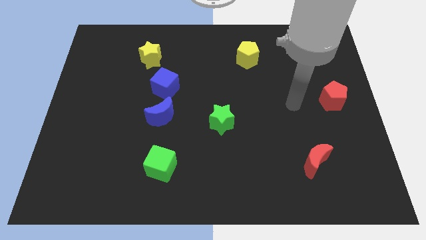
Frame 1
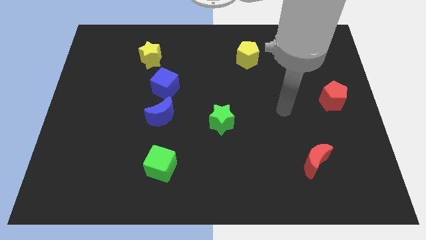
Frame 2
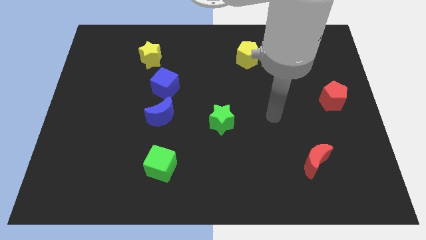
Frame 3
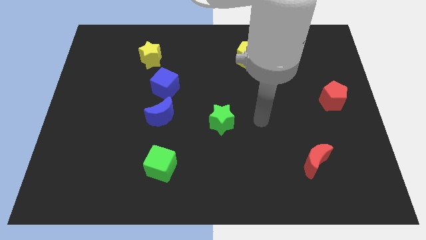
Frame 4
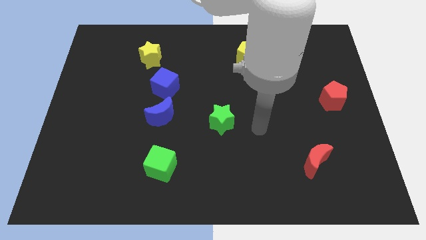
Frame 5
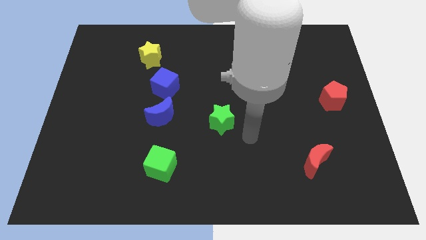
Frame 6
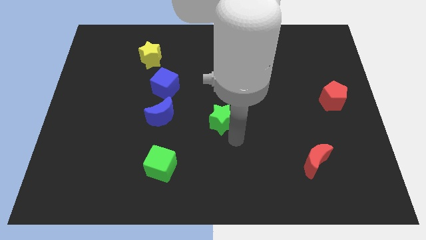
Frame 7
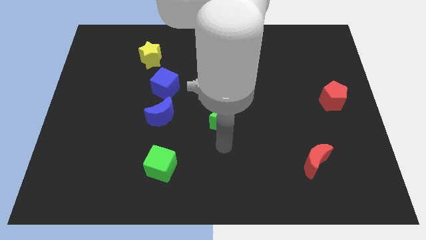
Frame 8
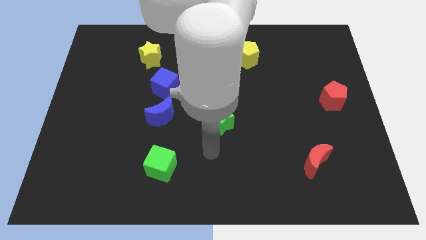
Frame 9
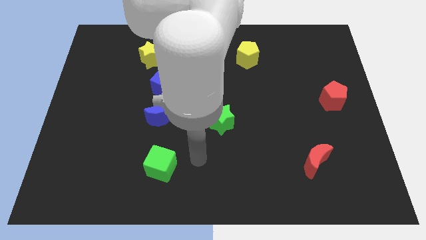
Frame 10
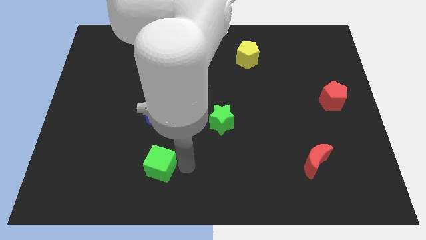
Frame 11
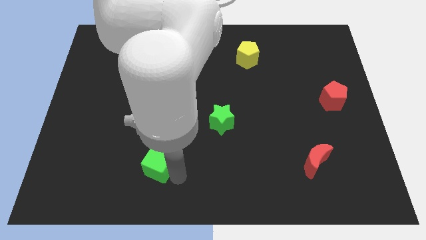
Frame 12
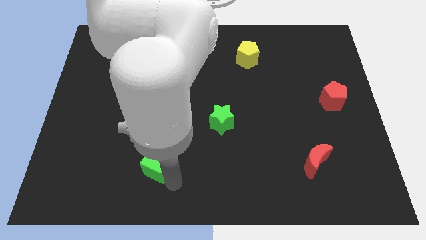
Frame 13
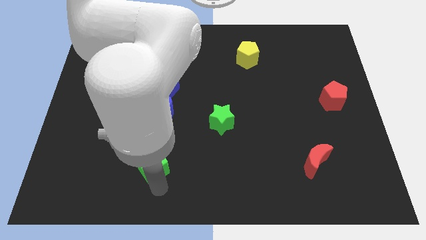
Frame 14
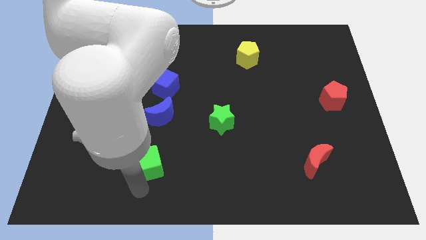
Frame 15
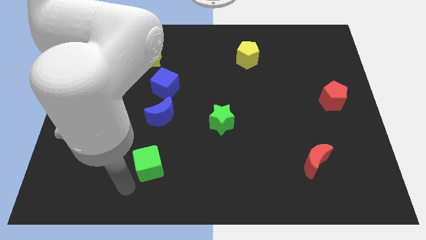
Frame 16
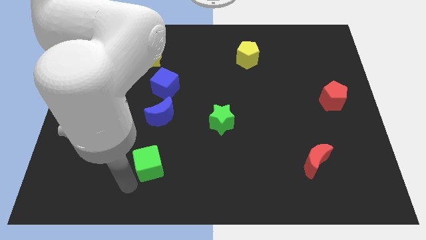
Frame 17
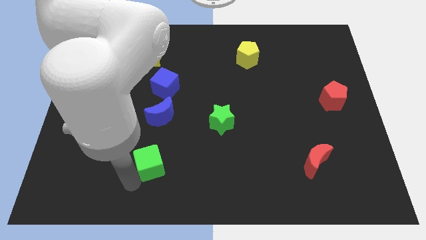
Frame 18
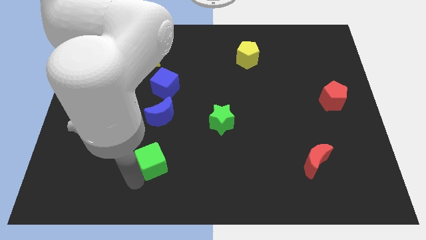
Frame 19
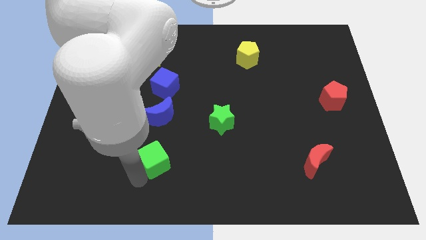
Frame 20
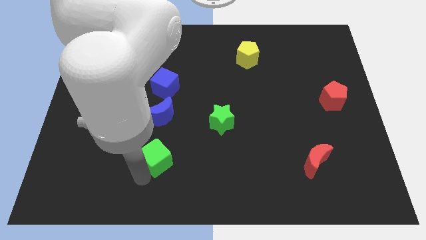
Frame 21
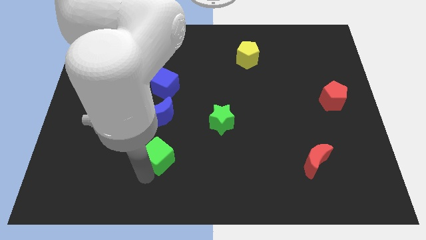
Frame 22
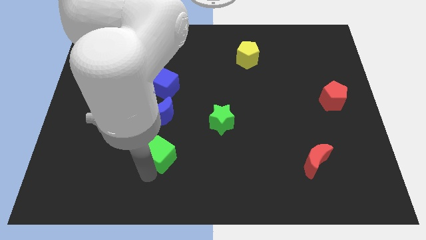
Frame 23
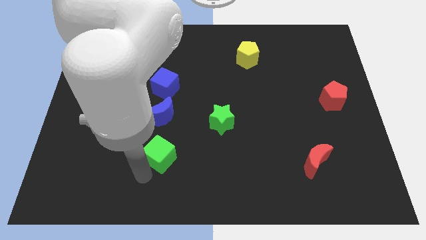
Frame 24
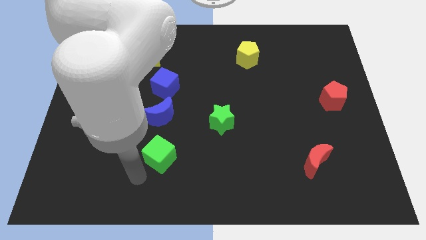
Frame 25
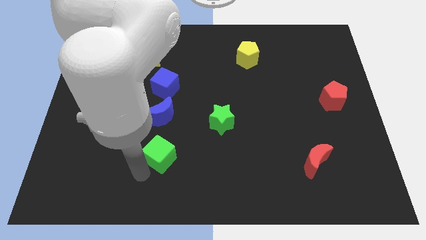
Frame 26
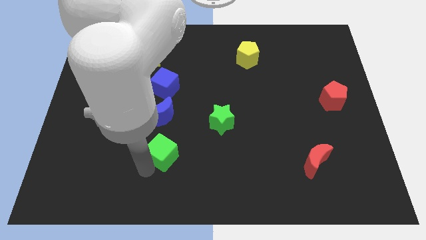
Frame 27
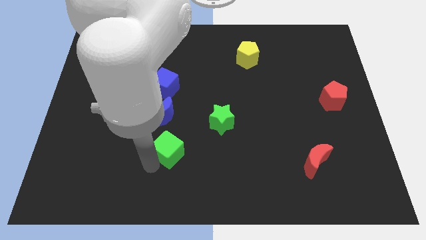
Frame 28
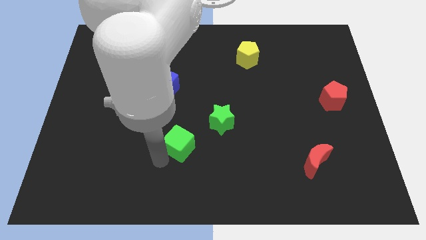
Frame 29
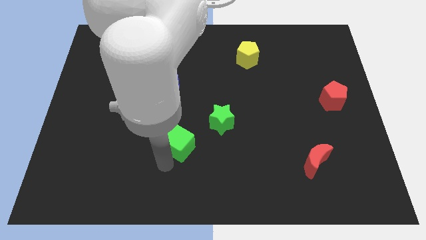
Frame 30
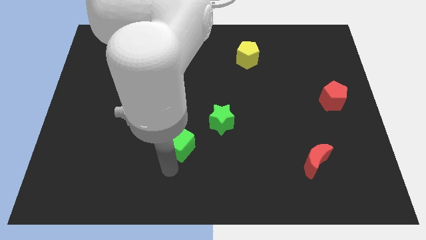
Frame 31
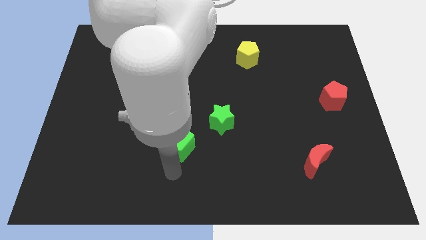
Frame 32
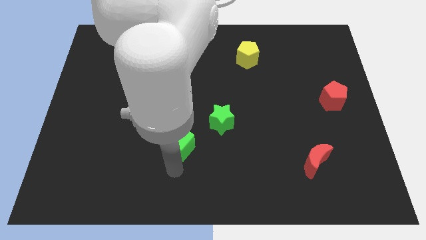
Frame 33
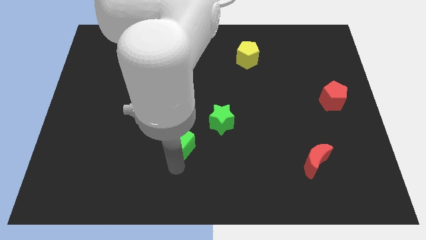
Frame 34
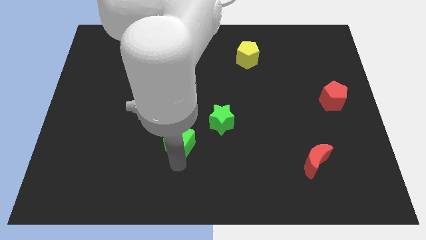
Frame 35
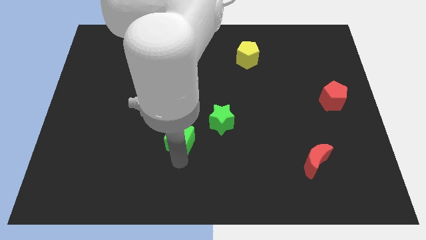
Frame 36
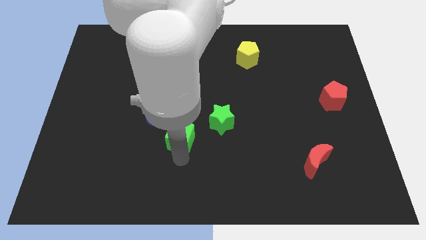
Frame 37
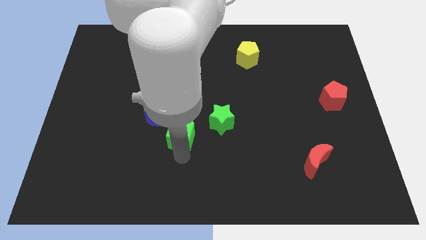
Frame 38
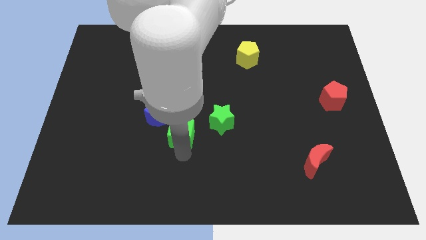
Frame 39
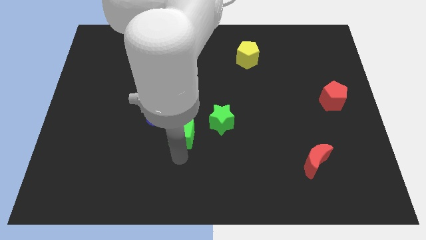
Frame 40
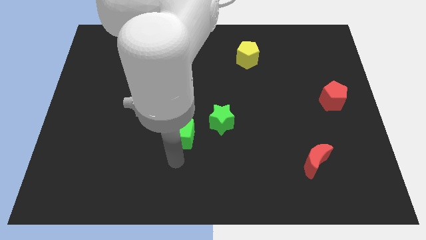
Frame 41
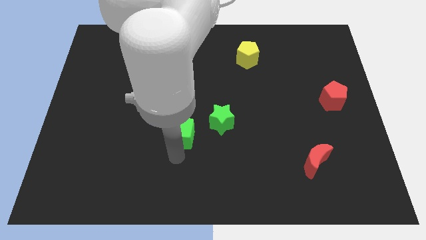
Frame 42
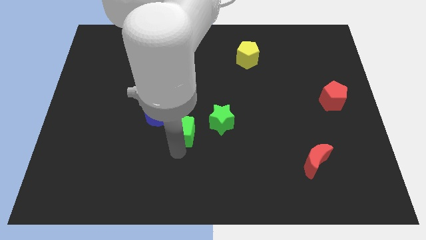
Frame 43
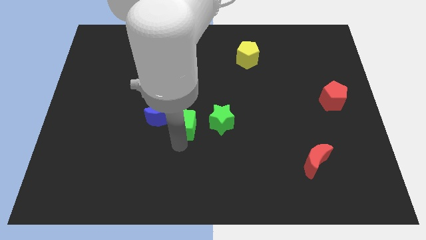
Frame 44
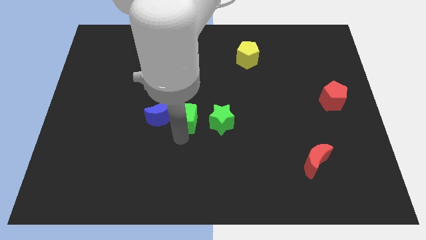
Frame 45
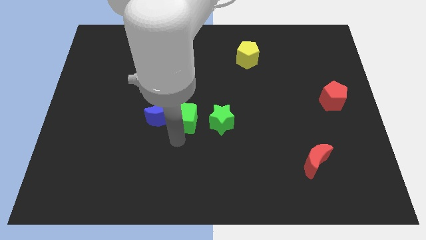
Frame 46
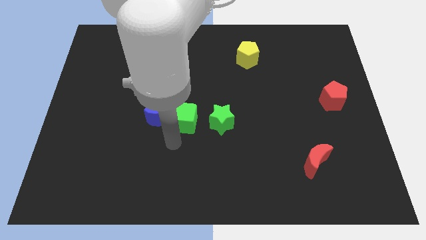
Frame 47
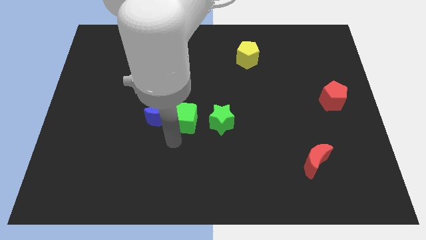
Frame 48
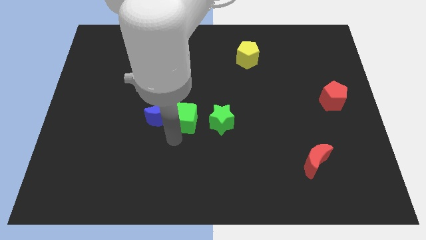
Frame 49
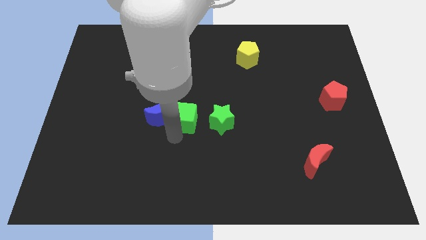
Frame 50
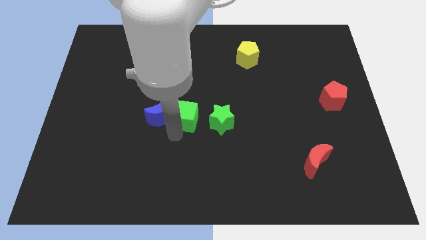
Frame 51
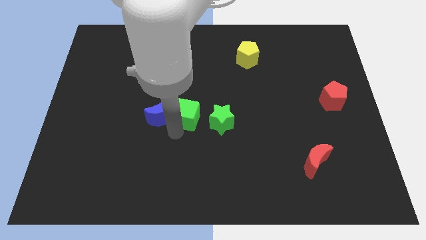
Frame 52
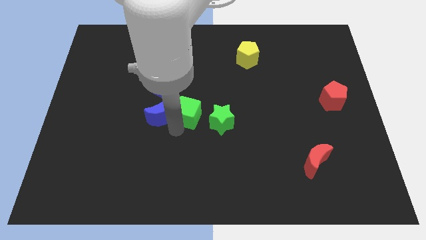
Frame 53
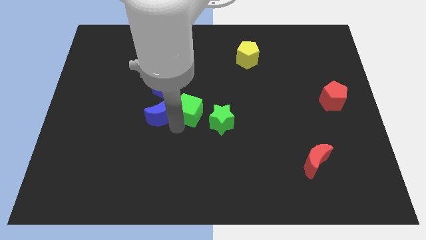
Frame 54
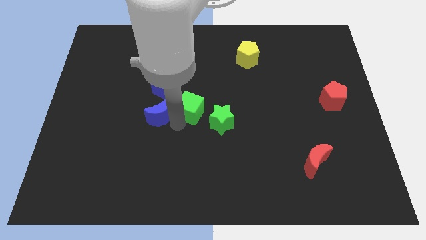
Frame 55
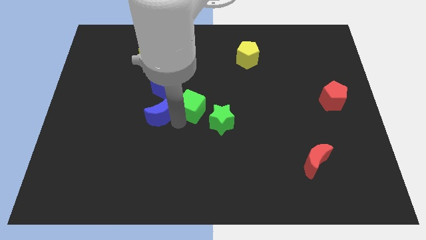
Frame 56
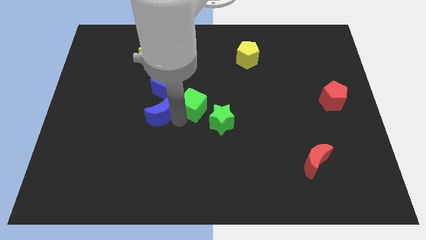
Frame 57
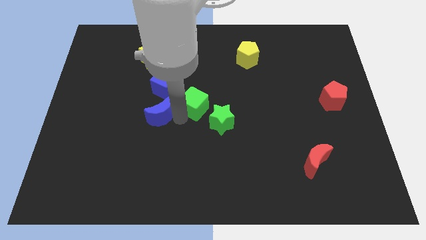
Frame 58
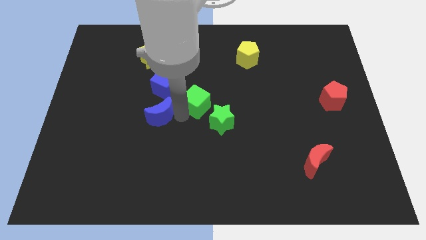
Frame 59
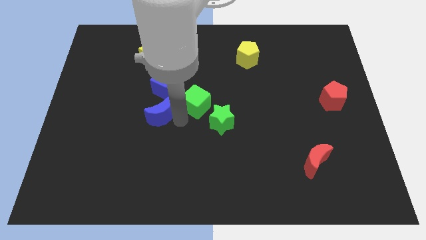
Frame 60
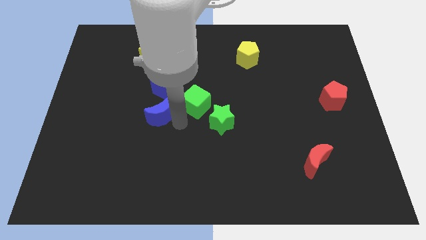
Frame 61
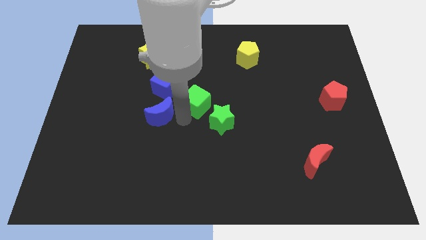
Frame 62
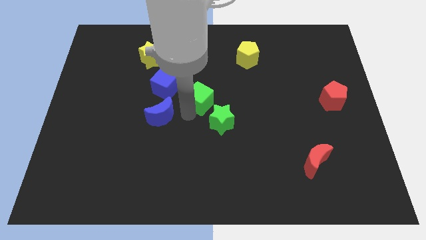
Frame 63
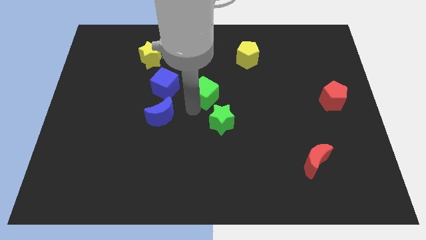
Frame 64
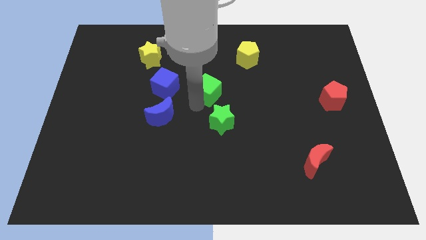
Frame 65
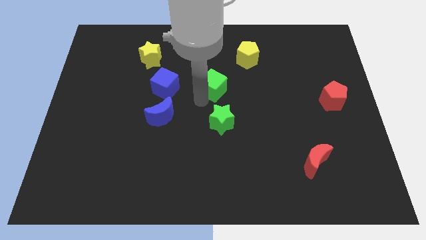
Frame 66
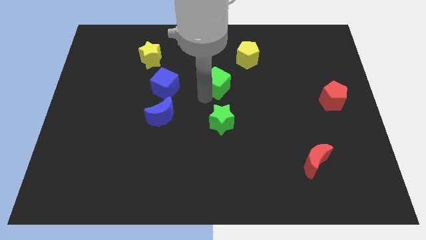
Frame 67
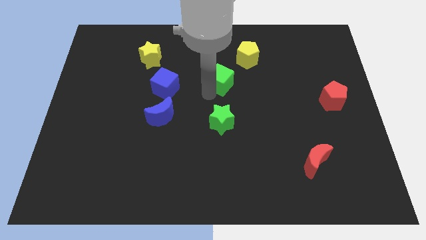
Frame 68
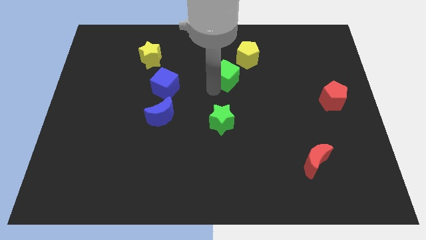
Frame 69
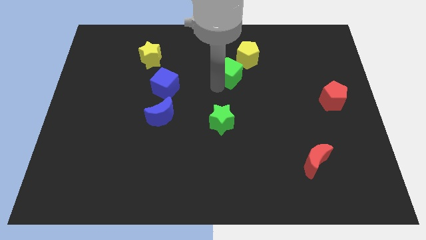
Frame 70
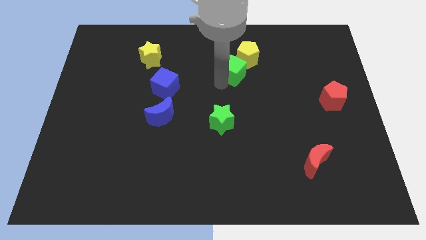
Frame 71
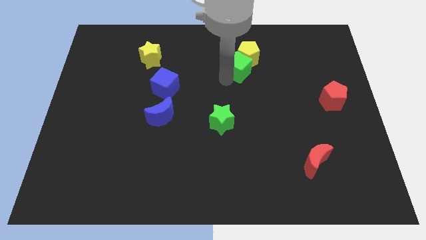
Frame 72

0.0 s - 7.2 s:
put the green cube towards the yellow pentagon

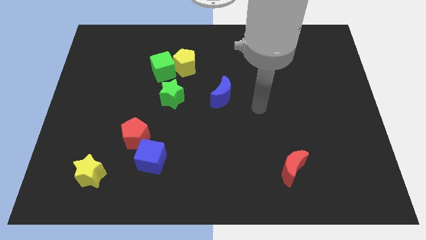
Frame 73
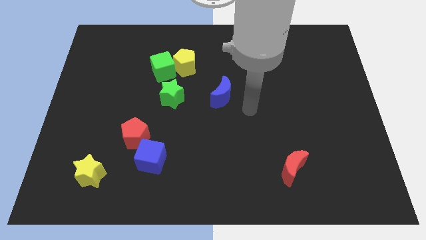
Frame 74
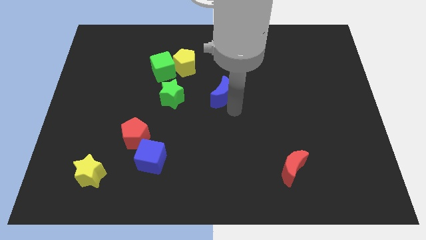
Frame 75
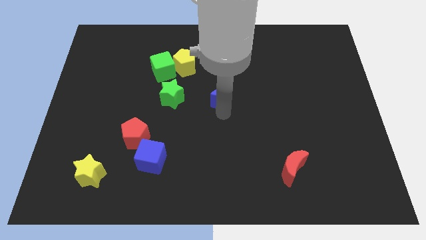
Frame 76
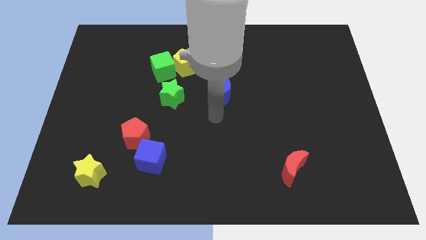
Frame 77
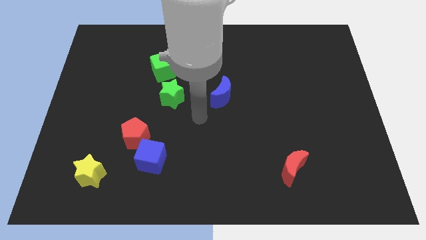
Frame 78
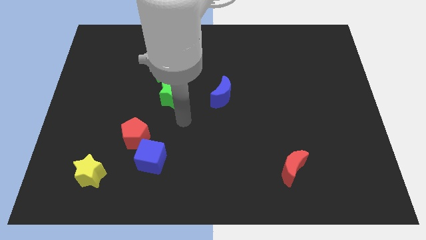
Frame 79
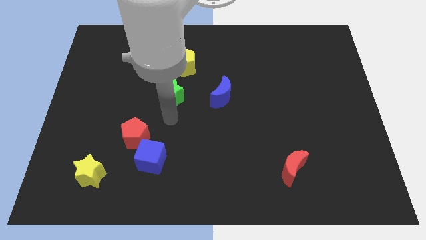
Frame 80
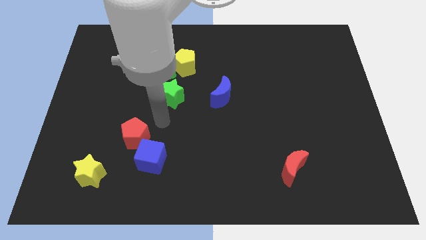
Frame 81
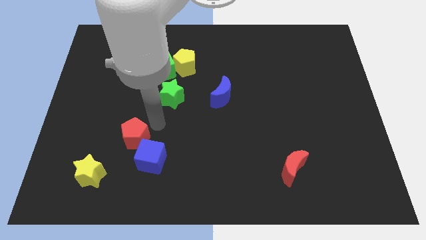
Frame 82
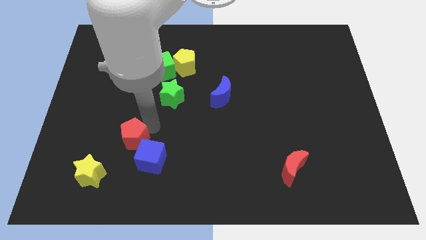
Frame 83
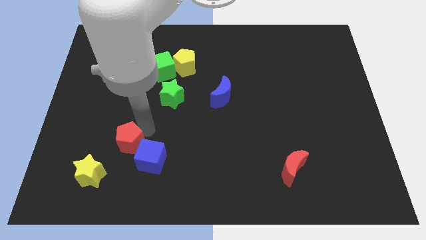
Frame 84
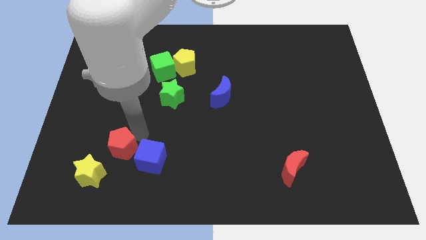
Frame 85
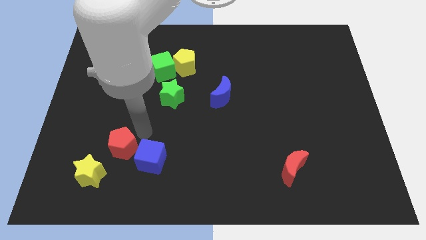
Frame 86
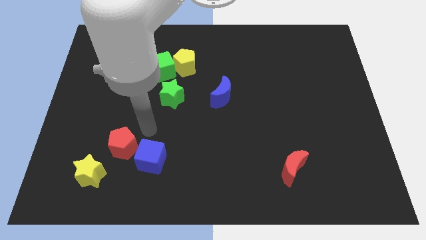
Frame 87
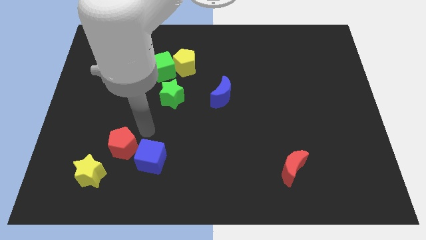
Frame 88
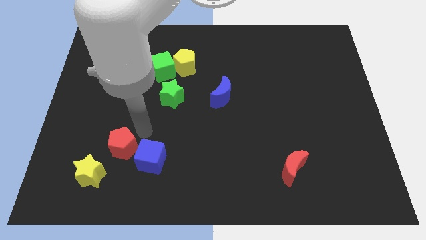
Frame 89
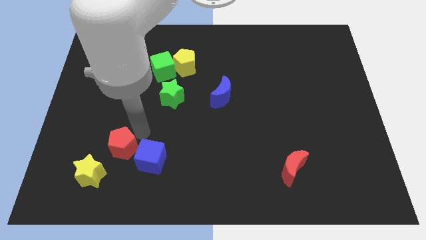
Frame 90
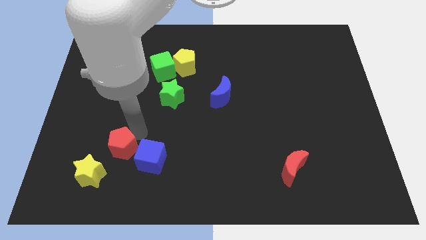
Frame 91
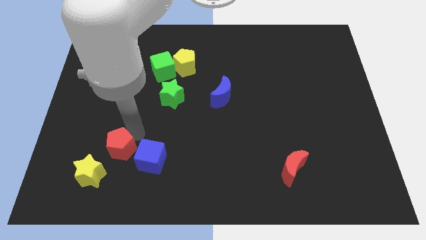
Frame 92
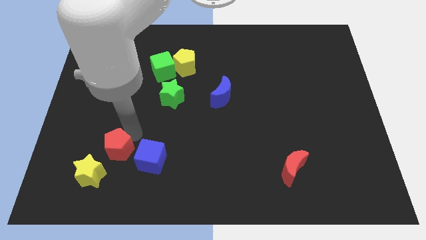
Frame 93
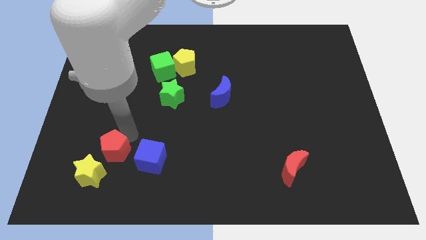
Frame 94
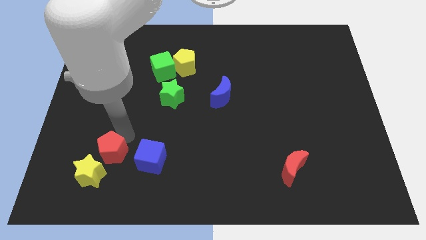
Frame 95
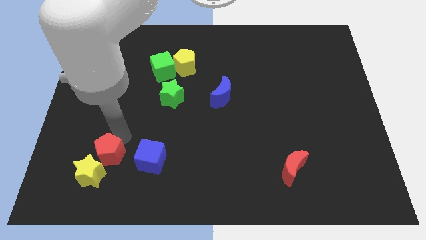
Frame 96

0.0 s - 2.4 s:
slide the red pentagon close to the yellow star
